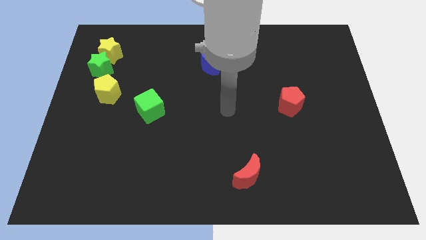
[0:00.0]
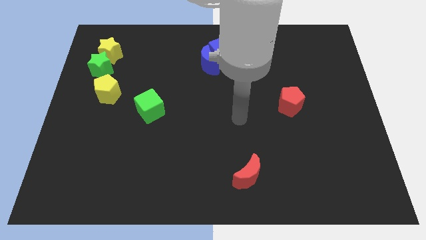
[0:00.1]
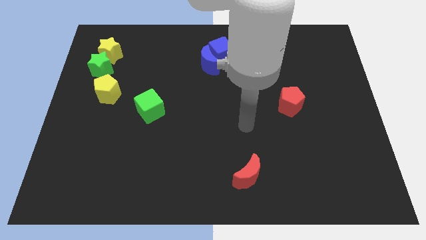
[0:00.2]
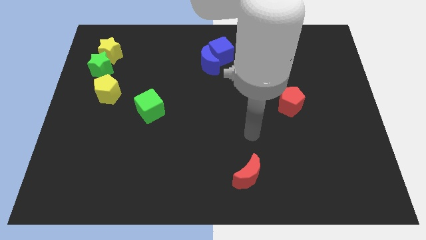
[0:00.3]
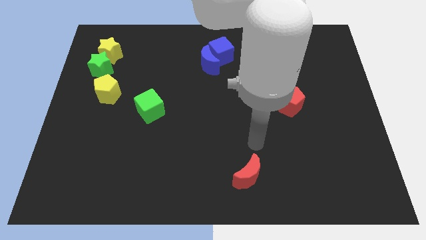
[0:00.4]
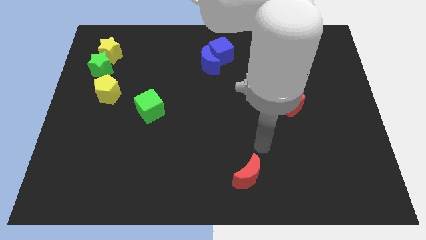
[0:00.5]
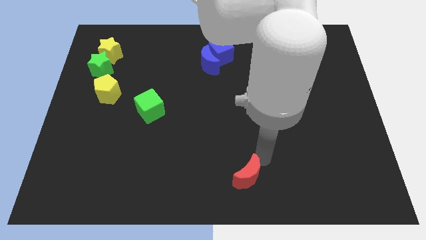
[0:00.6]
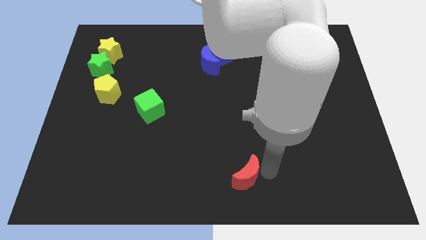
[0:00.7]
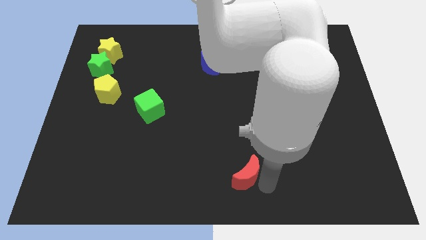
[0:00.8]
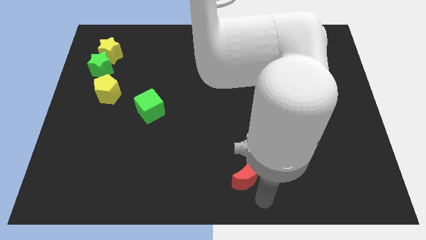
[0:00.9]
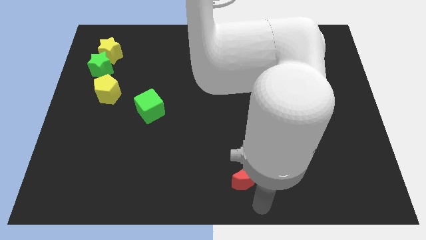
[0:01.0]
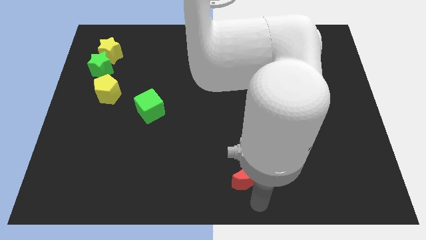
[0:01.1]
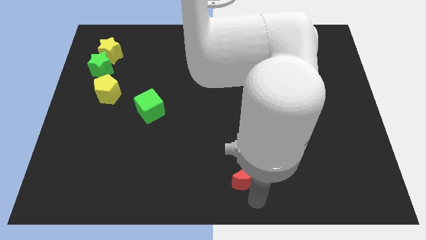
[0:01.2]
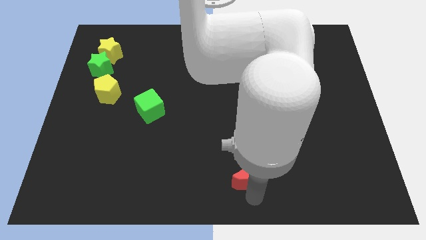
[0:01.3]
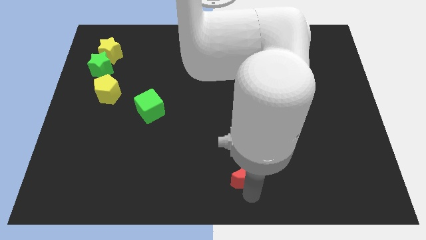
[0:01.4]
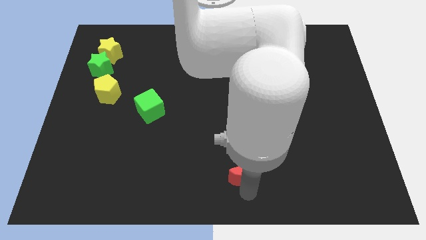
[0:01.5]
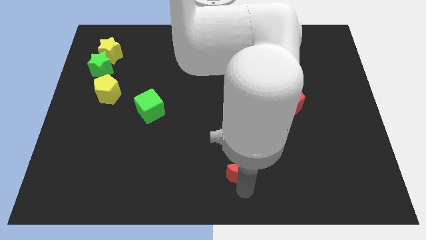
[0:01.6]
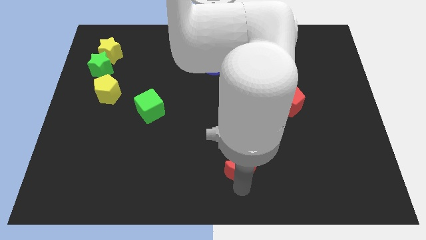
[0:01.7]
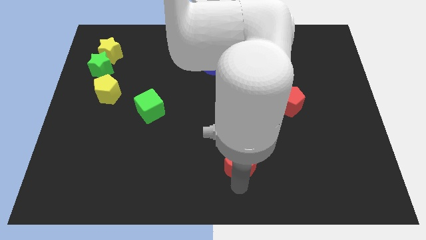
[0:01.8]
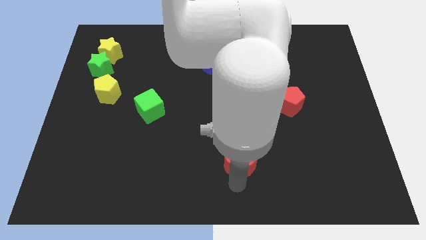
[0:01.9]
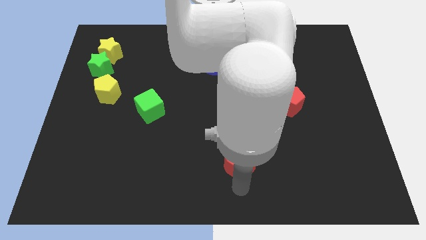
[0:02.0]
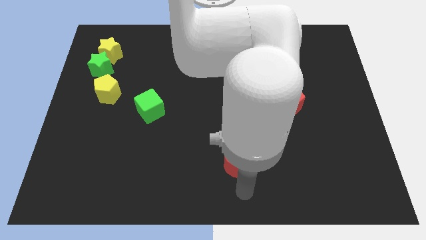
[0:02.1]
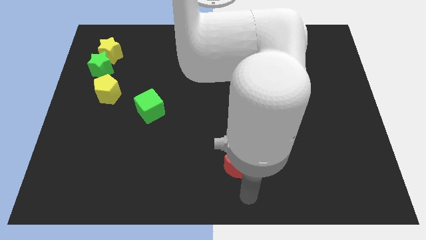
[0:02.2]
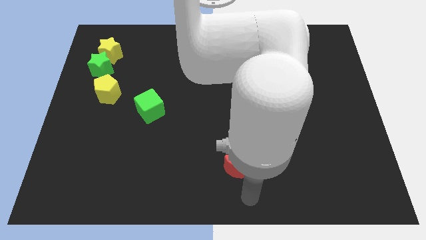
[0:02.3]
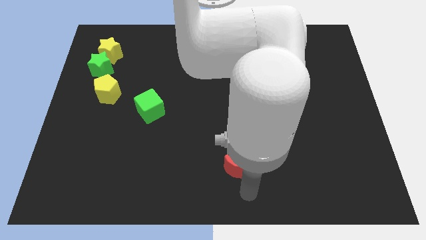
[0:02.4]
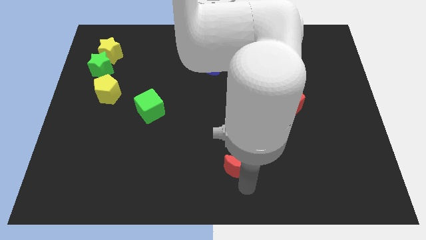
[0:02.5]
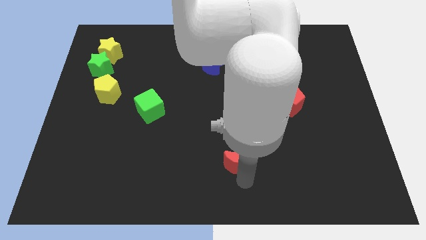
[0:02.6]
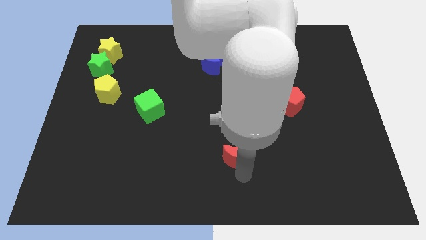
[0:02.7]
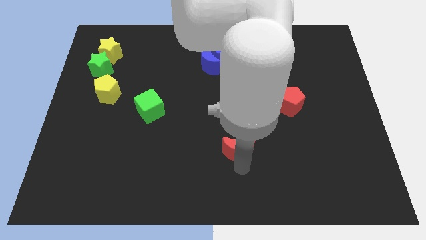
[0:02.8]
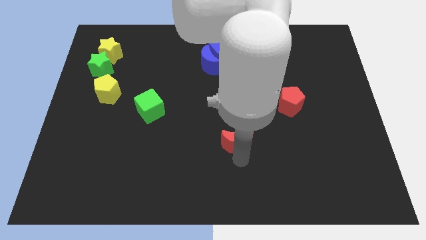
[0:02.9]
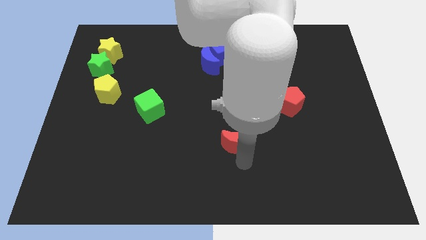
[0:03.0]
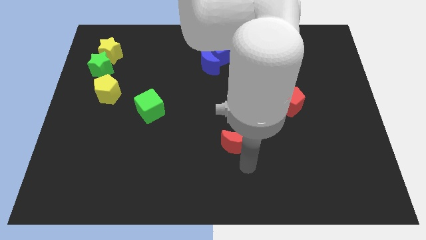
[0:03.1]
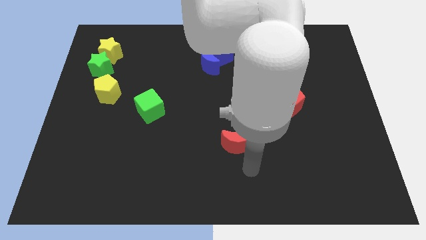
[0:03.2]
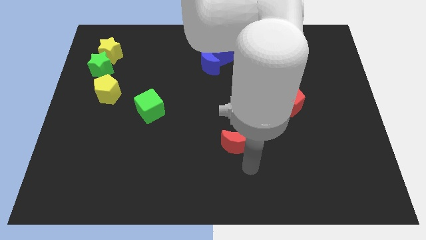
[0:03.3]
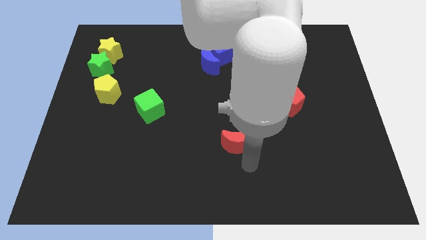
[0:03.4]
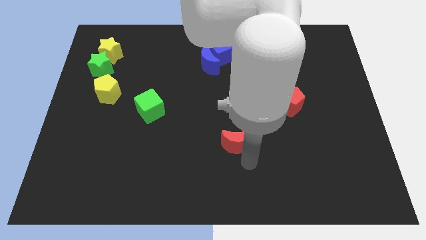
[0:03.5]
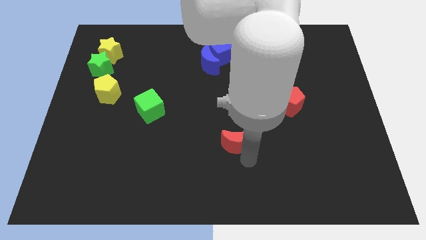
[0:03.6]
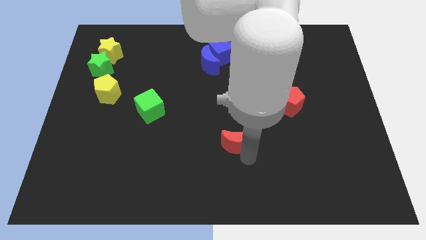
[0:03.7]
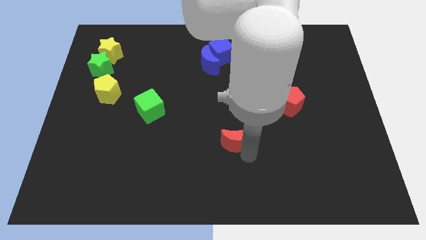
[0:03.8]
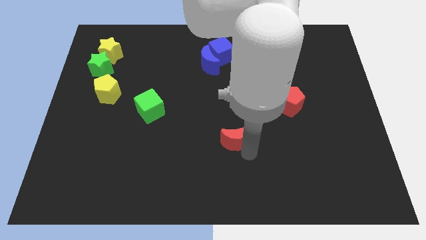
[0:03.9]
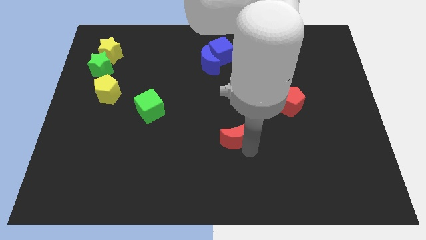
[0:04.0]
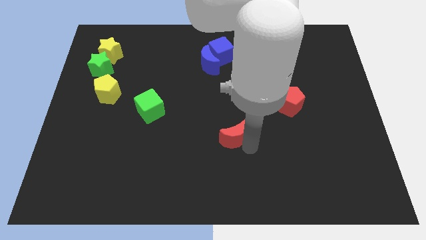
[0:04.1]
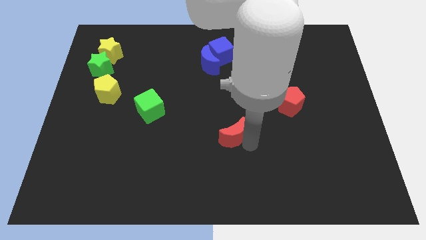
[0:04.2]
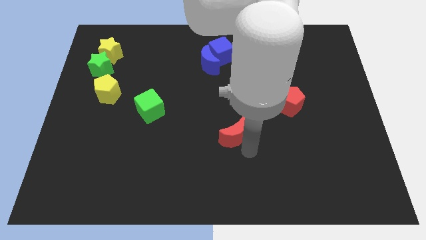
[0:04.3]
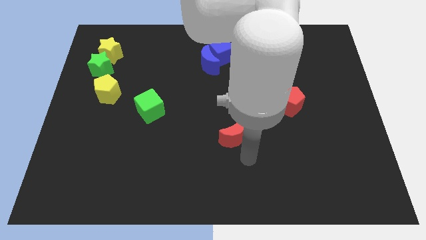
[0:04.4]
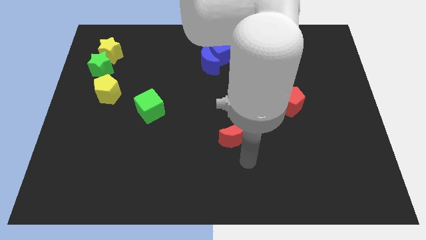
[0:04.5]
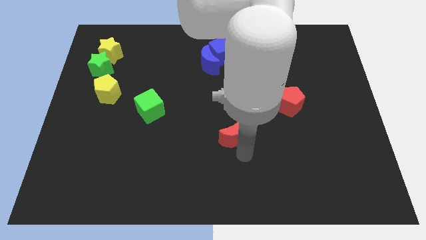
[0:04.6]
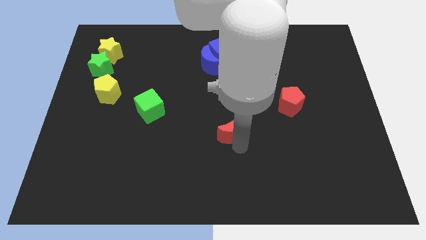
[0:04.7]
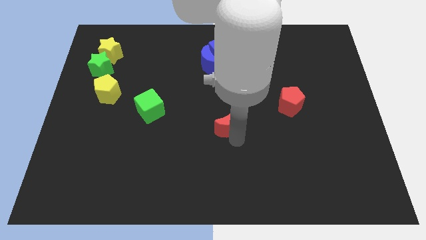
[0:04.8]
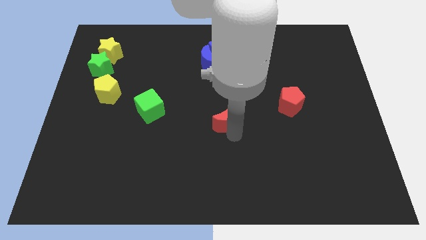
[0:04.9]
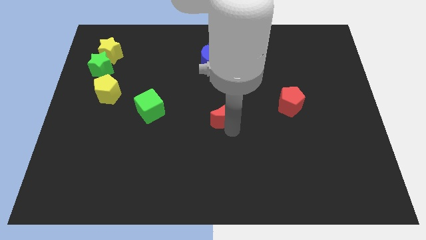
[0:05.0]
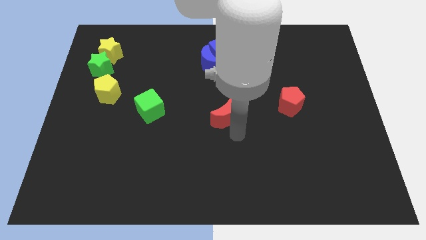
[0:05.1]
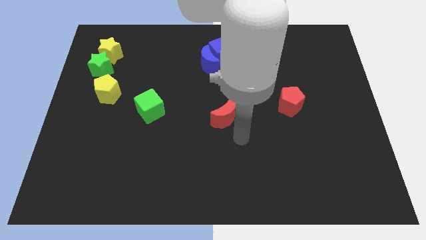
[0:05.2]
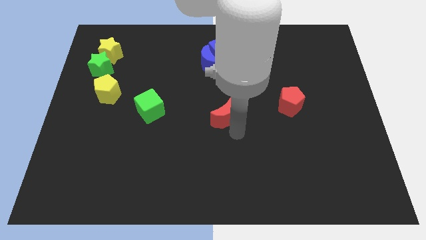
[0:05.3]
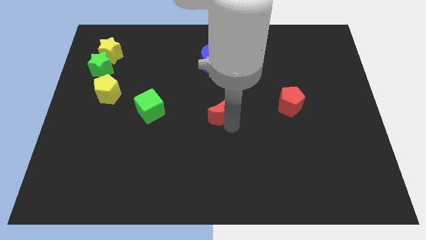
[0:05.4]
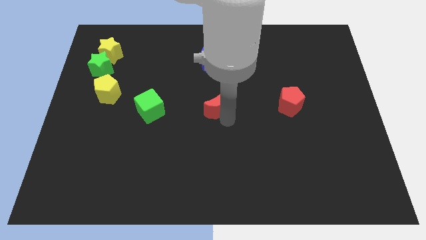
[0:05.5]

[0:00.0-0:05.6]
put the red moon to the bottom side of the blue moon

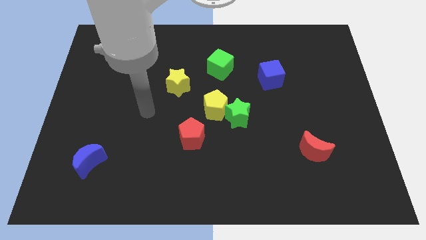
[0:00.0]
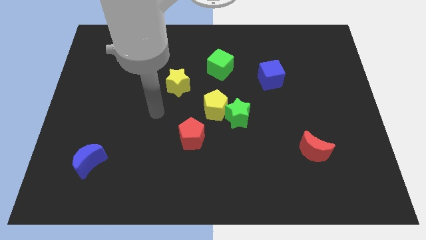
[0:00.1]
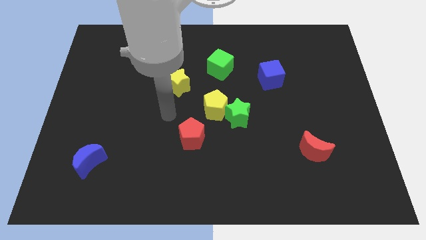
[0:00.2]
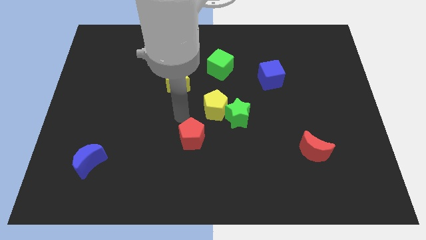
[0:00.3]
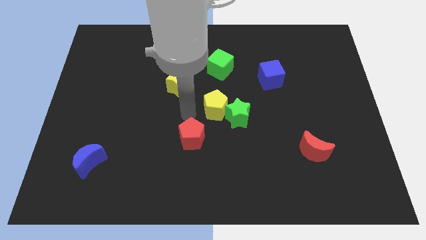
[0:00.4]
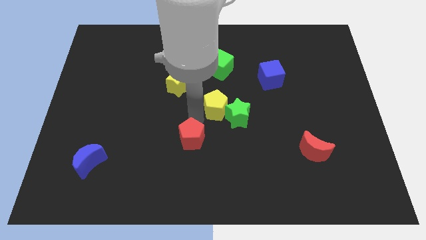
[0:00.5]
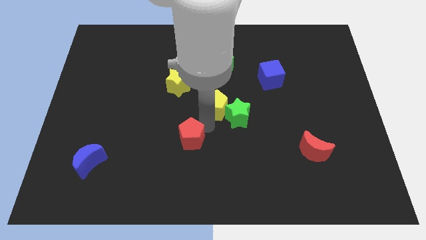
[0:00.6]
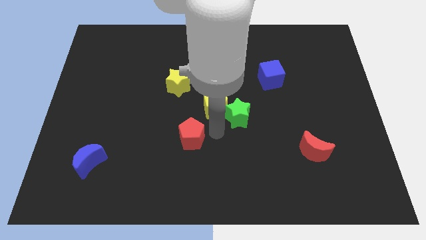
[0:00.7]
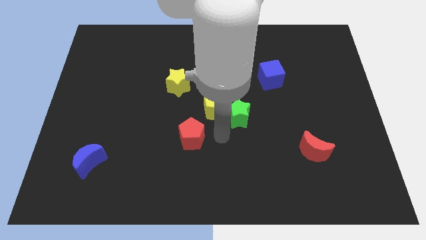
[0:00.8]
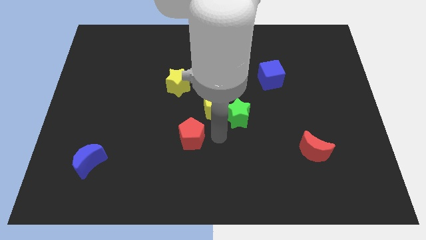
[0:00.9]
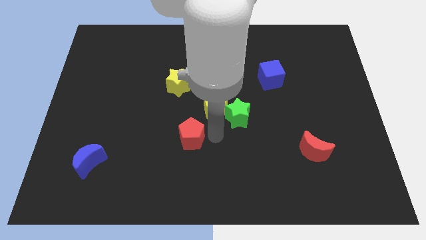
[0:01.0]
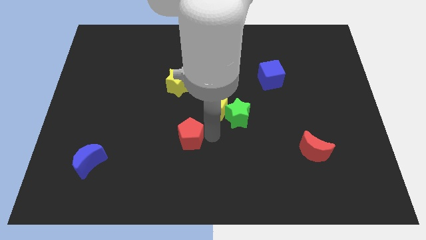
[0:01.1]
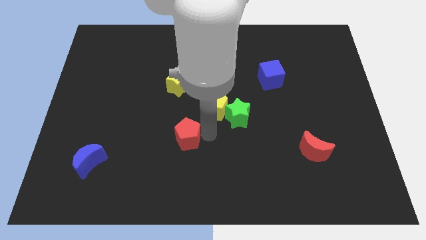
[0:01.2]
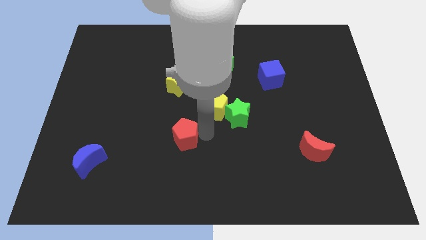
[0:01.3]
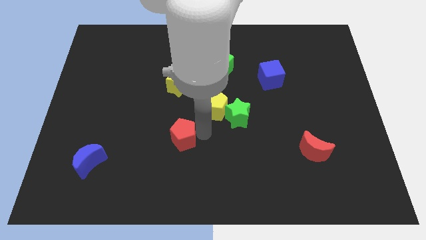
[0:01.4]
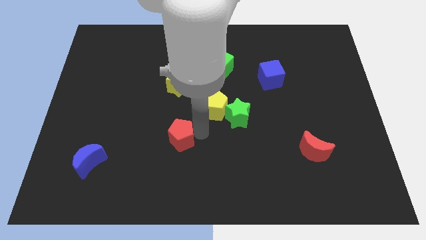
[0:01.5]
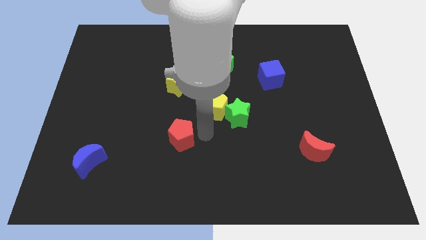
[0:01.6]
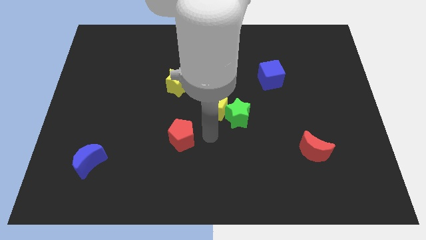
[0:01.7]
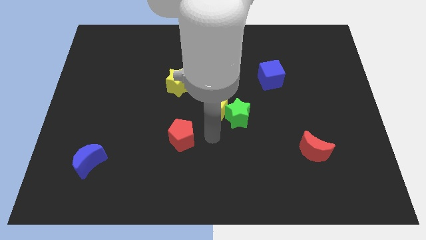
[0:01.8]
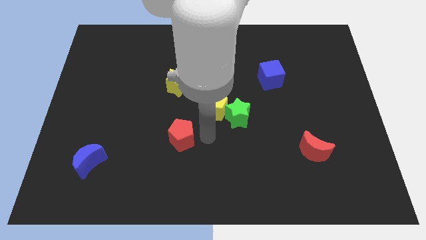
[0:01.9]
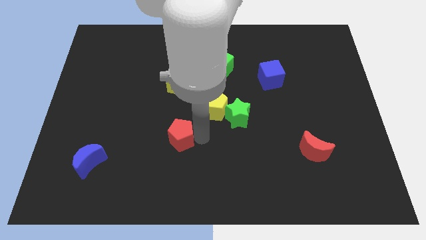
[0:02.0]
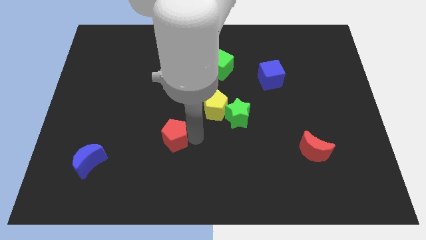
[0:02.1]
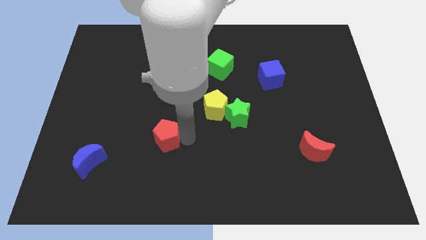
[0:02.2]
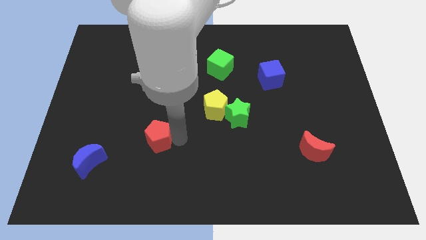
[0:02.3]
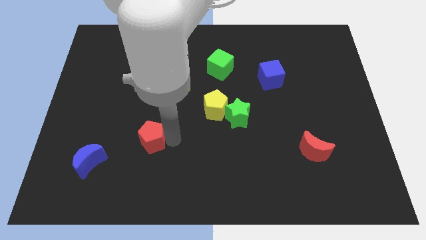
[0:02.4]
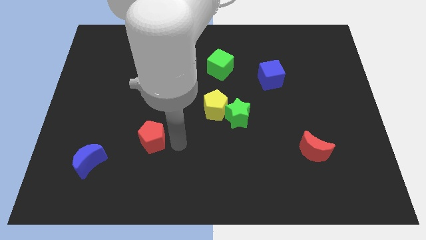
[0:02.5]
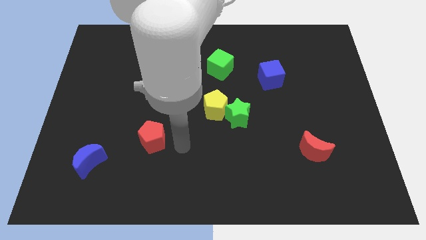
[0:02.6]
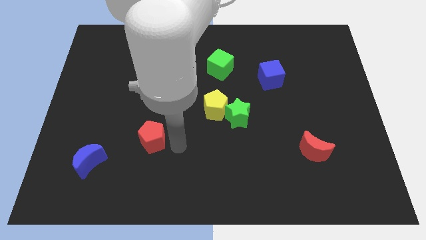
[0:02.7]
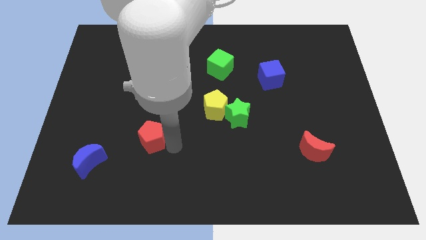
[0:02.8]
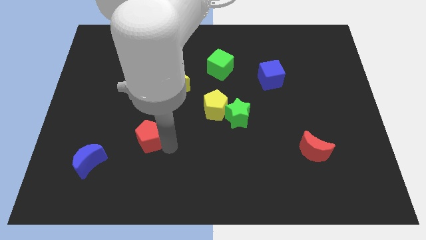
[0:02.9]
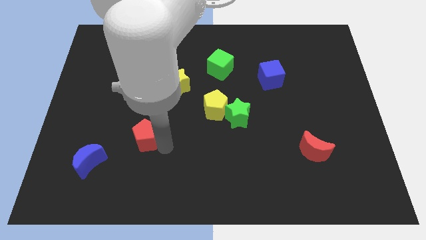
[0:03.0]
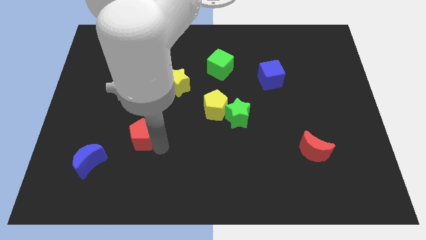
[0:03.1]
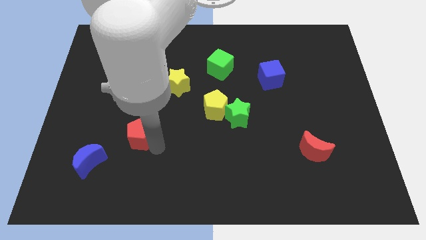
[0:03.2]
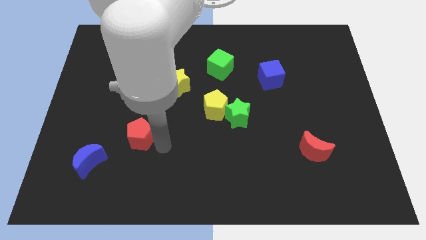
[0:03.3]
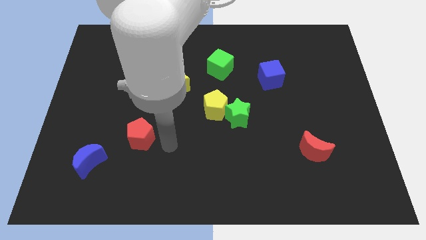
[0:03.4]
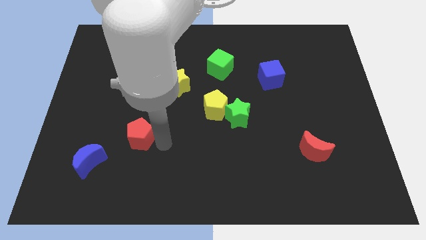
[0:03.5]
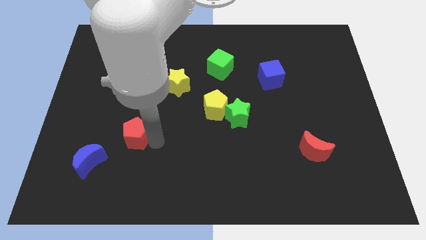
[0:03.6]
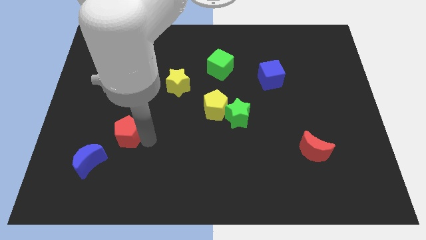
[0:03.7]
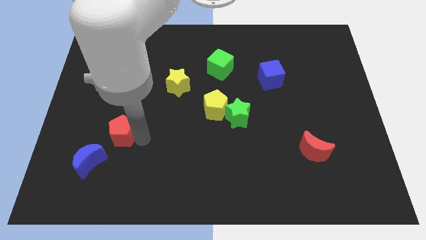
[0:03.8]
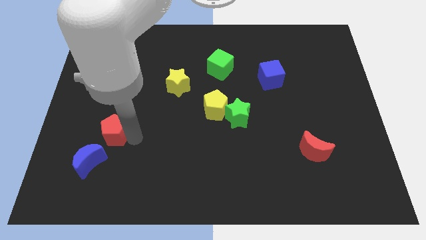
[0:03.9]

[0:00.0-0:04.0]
put the red pentagon above the blue moon
